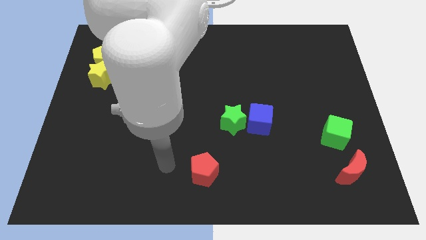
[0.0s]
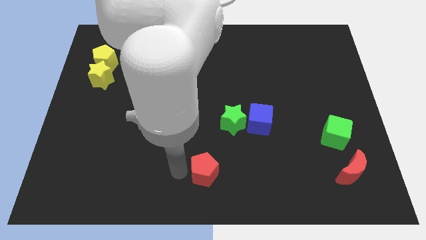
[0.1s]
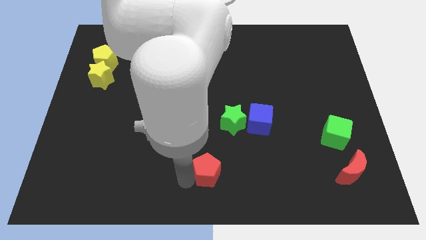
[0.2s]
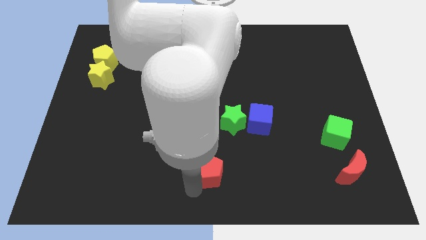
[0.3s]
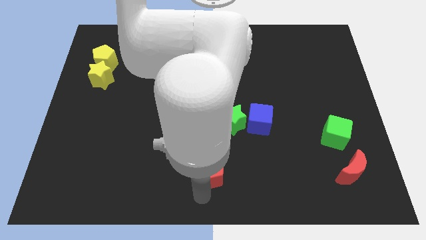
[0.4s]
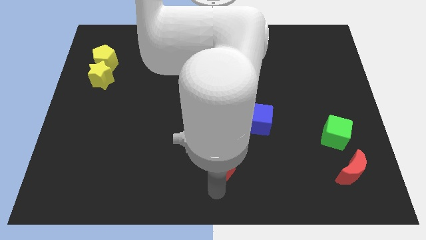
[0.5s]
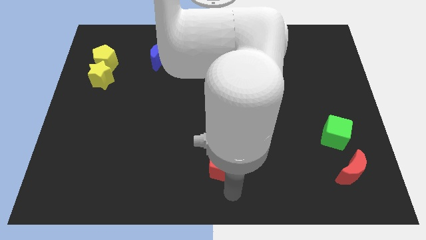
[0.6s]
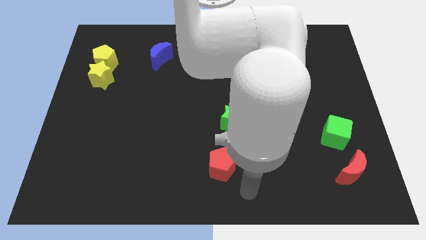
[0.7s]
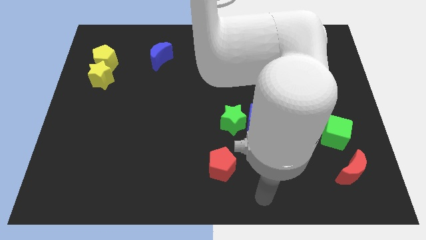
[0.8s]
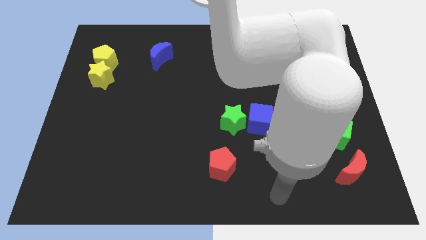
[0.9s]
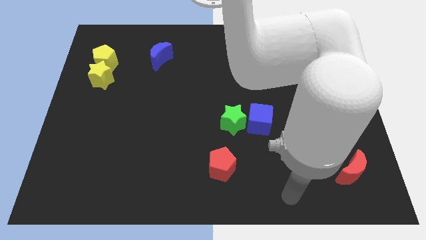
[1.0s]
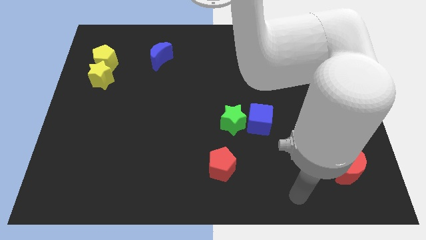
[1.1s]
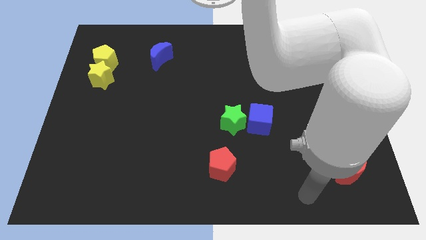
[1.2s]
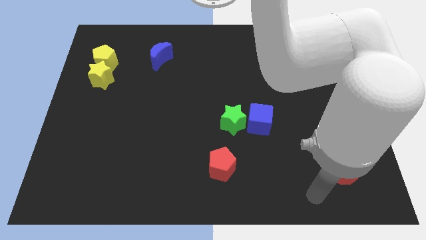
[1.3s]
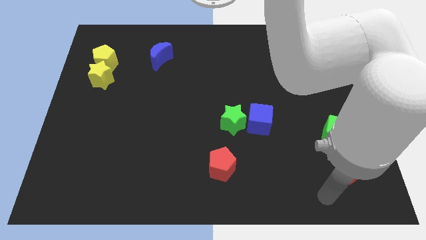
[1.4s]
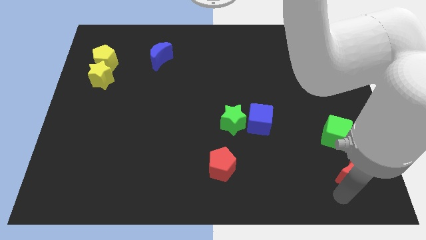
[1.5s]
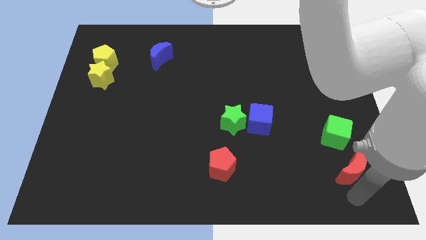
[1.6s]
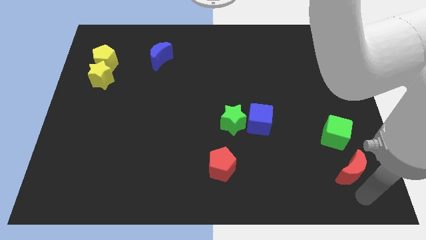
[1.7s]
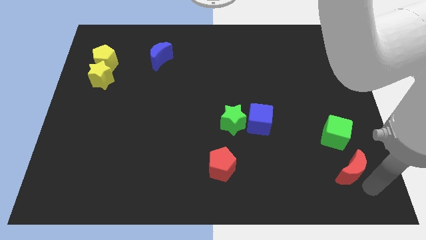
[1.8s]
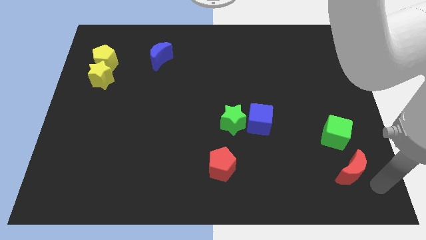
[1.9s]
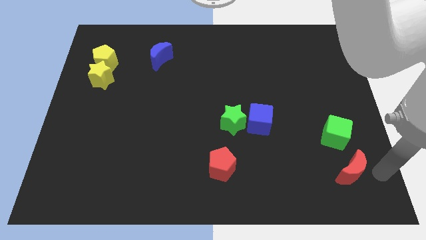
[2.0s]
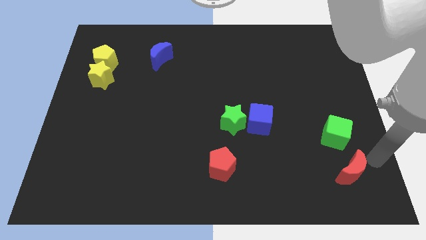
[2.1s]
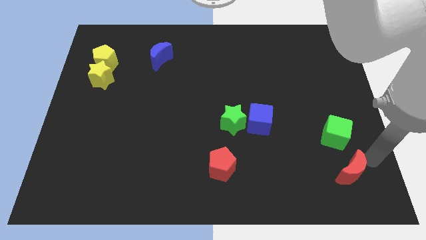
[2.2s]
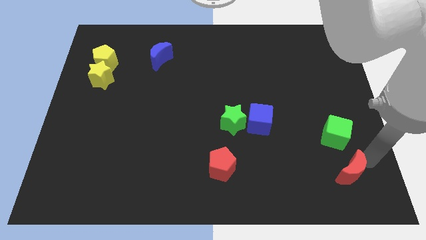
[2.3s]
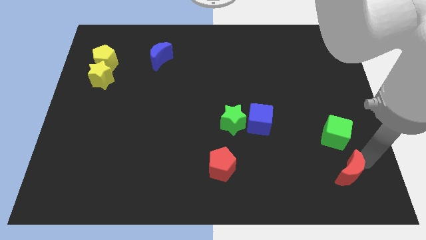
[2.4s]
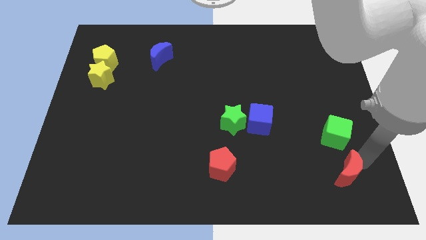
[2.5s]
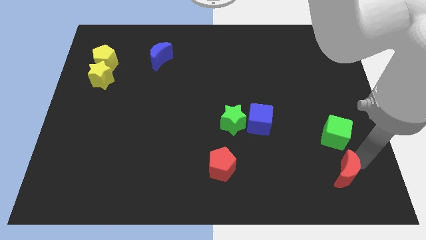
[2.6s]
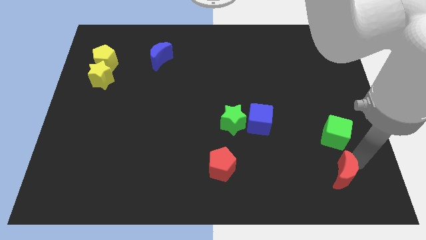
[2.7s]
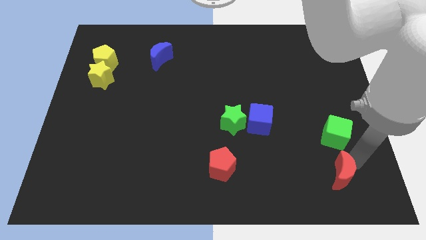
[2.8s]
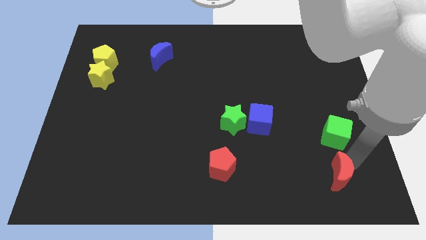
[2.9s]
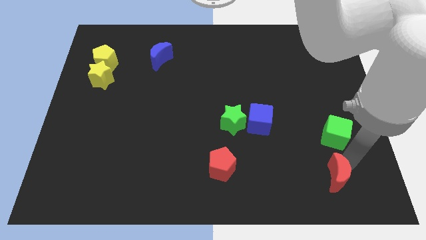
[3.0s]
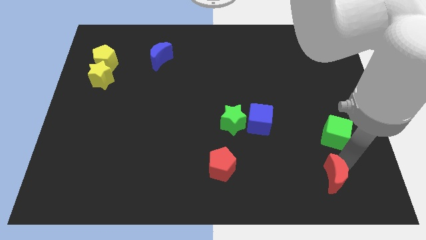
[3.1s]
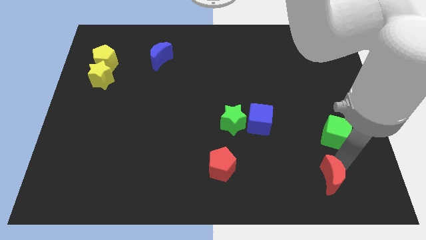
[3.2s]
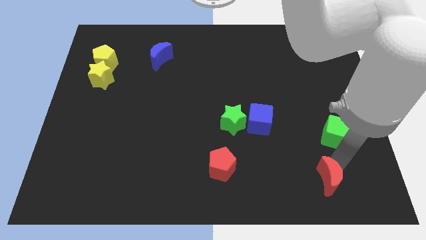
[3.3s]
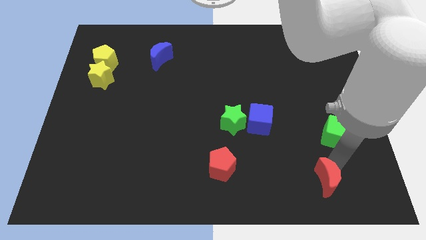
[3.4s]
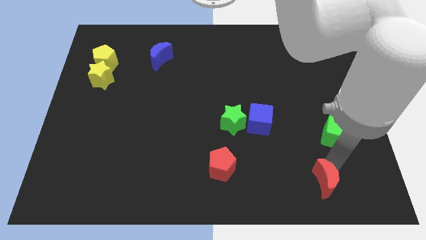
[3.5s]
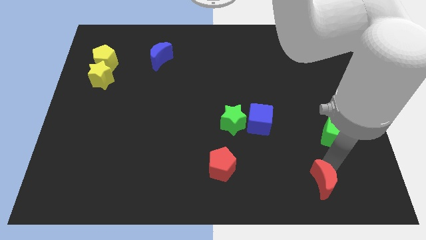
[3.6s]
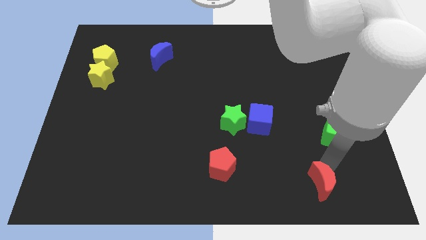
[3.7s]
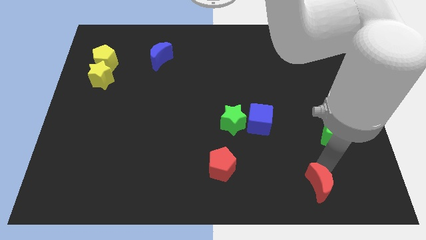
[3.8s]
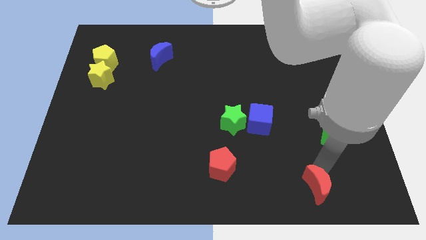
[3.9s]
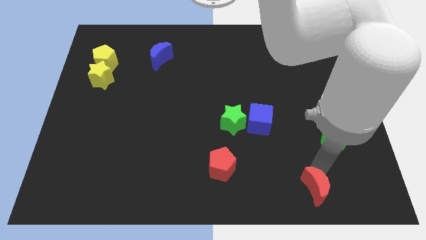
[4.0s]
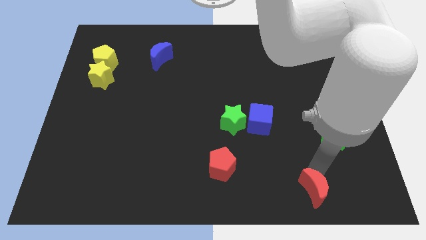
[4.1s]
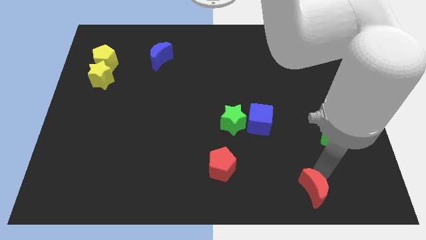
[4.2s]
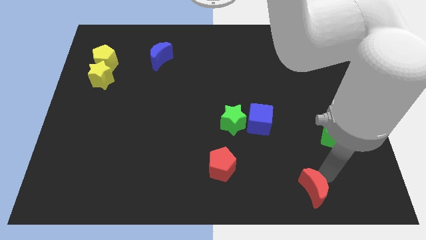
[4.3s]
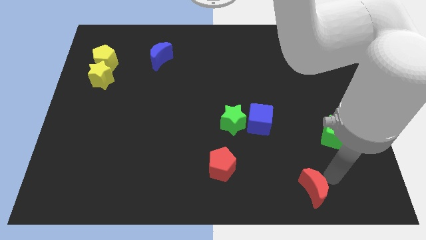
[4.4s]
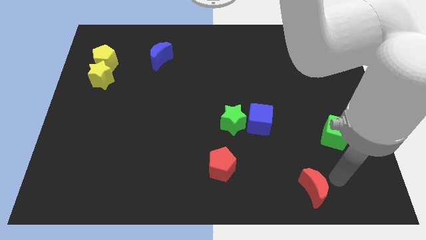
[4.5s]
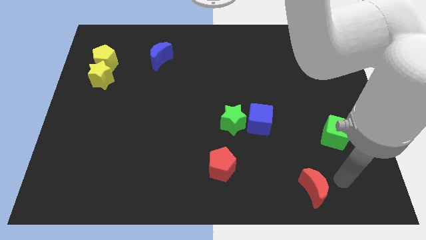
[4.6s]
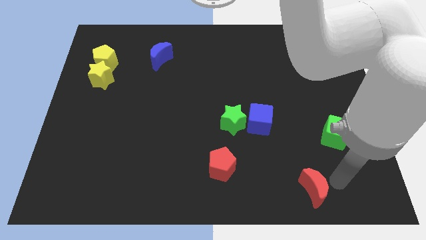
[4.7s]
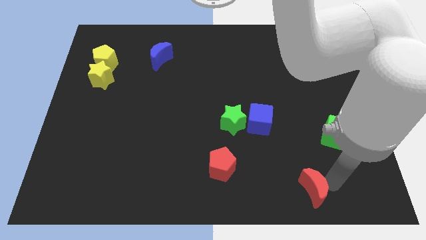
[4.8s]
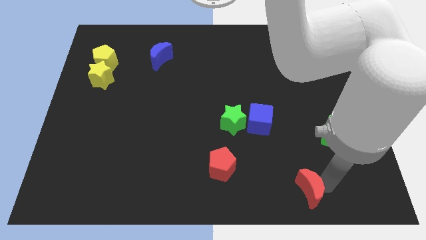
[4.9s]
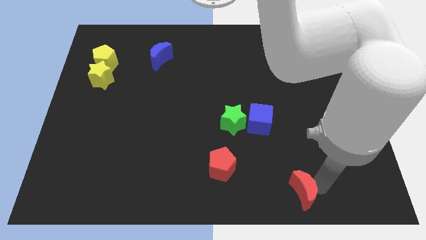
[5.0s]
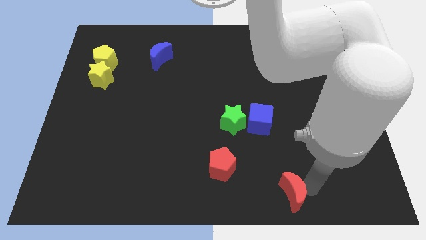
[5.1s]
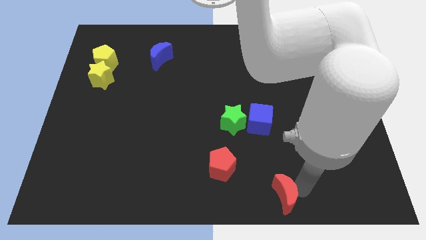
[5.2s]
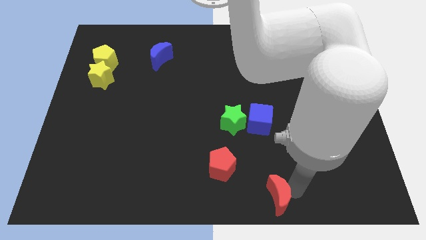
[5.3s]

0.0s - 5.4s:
push the red moon to the bottom side

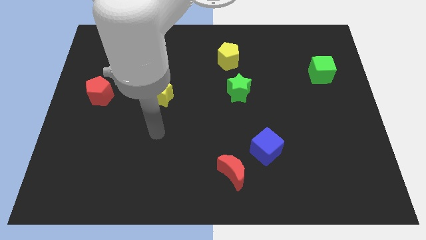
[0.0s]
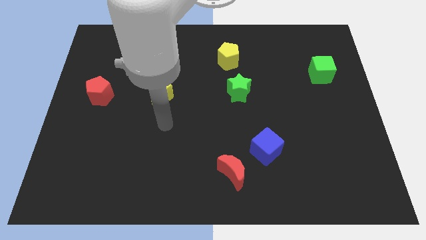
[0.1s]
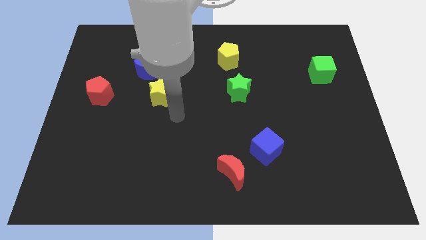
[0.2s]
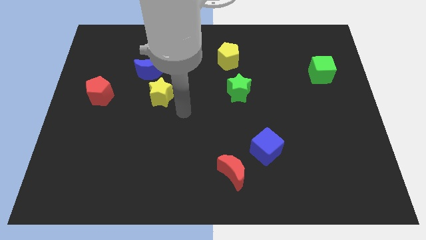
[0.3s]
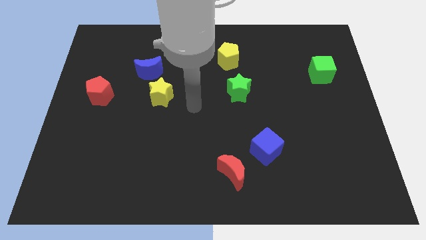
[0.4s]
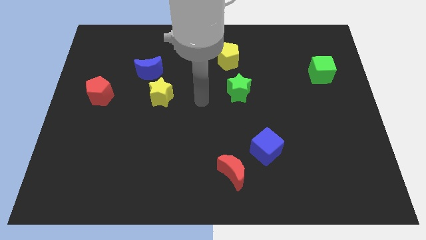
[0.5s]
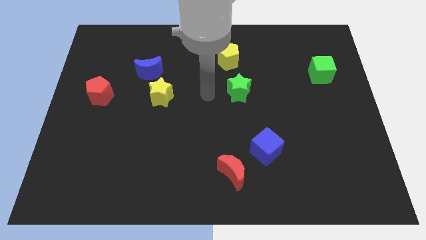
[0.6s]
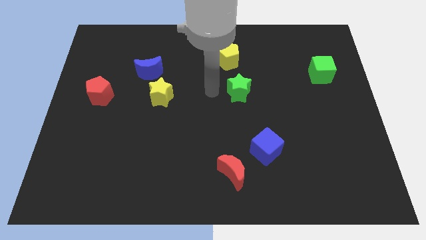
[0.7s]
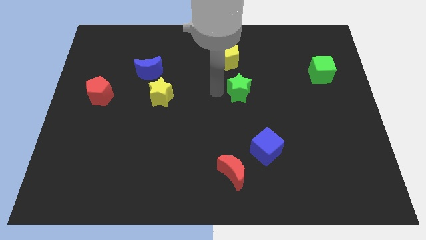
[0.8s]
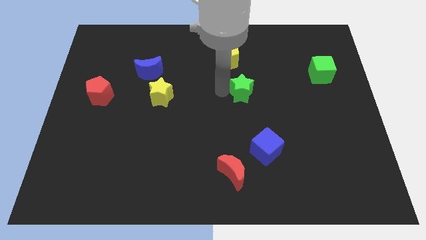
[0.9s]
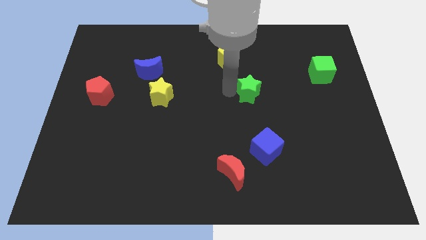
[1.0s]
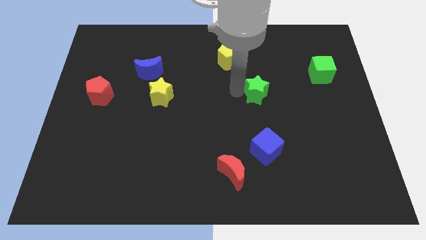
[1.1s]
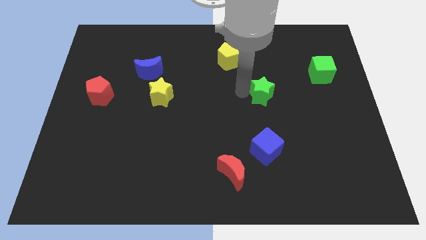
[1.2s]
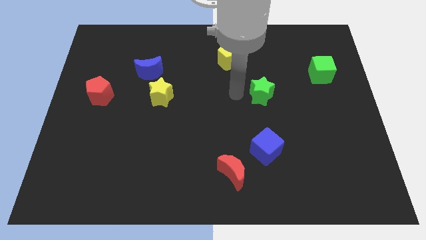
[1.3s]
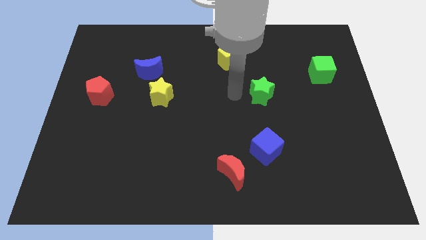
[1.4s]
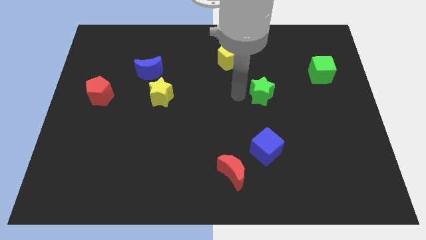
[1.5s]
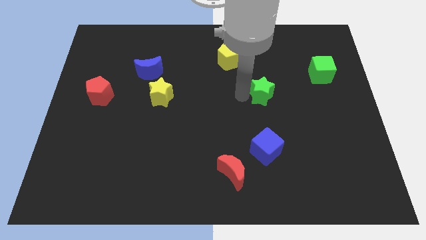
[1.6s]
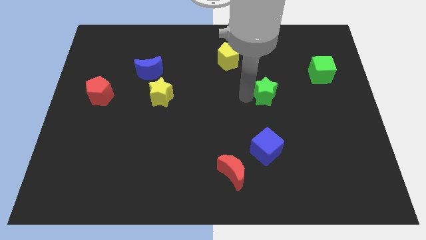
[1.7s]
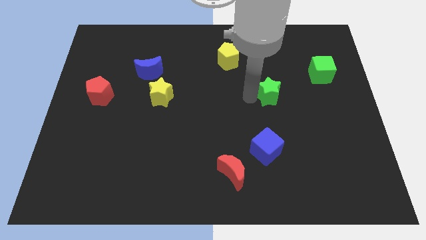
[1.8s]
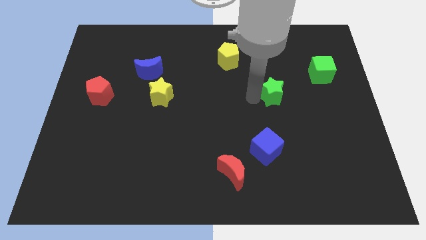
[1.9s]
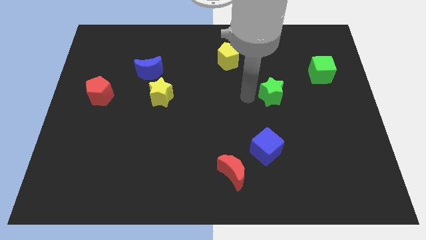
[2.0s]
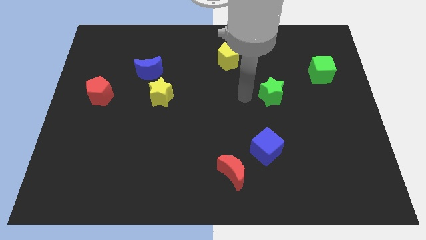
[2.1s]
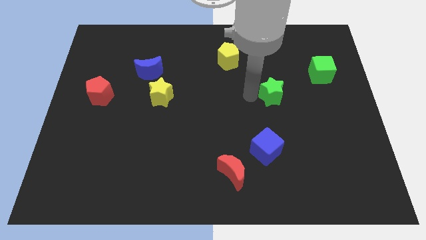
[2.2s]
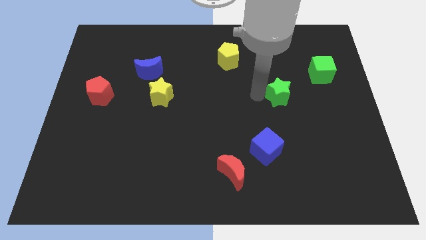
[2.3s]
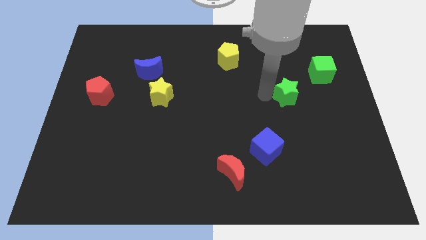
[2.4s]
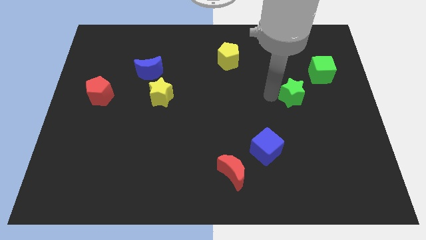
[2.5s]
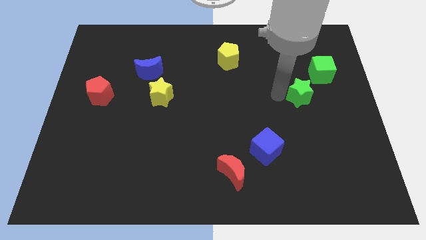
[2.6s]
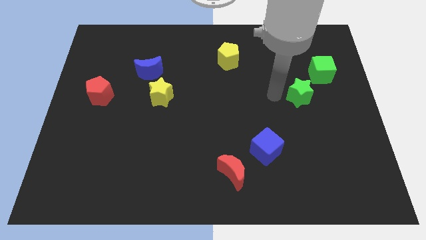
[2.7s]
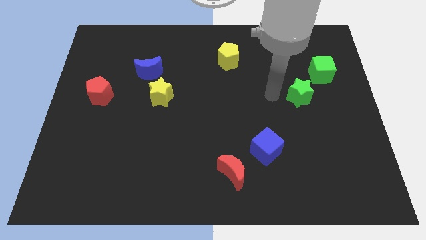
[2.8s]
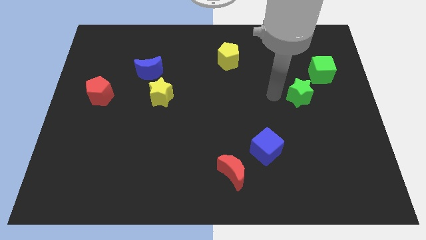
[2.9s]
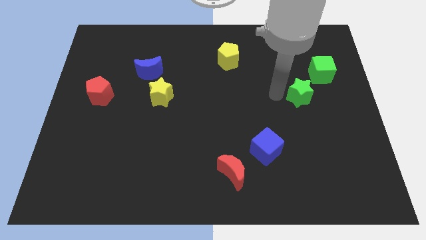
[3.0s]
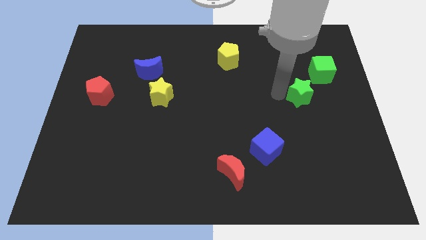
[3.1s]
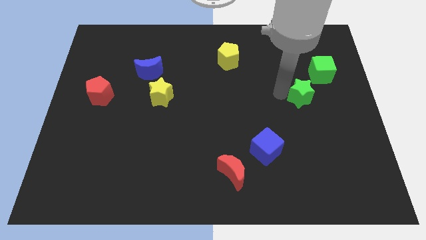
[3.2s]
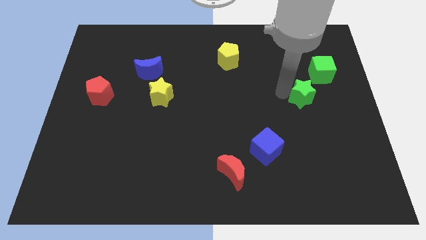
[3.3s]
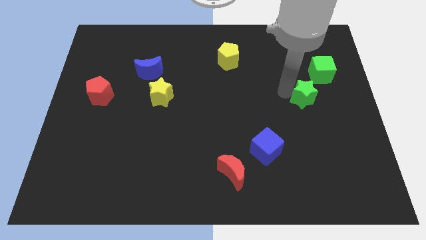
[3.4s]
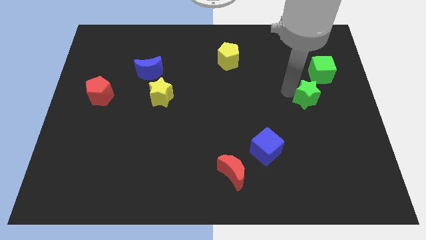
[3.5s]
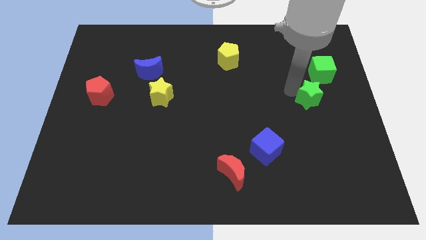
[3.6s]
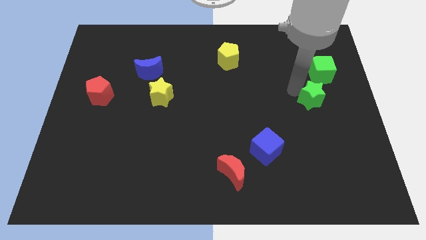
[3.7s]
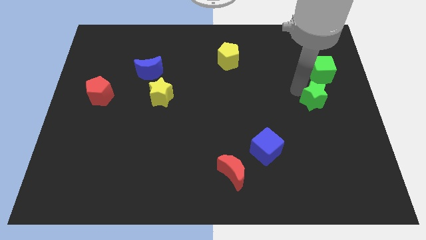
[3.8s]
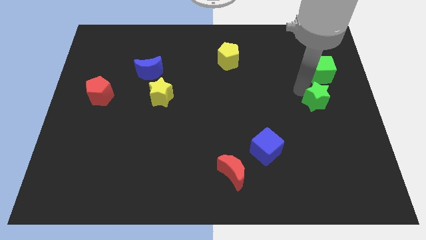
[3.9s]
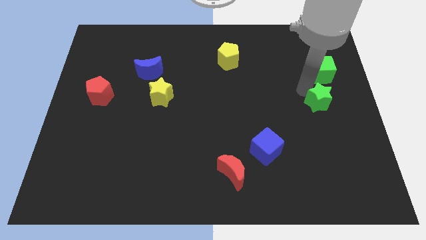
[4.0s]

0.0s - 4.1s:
move the green star to the right side
